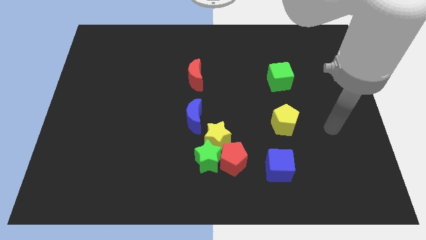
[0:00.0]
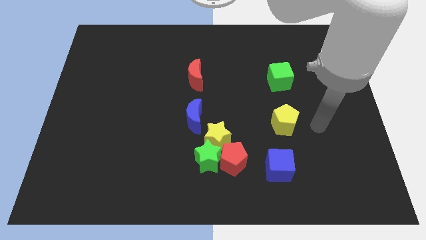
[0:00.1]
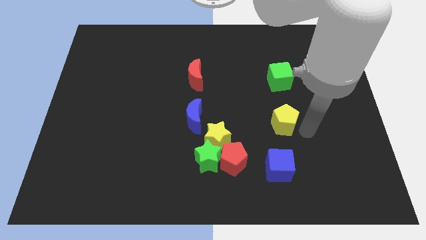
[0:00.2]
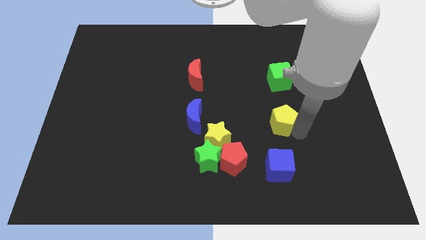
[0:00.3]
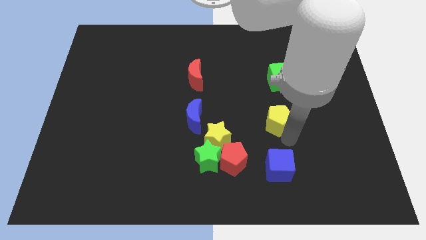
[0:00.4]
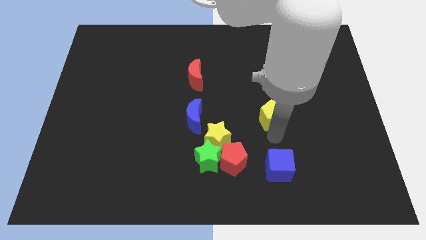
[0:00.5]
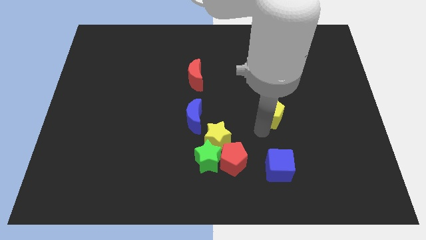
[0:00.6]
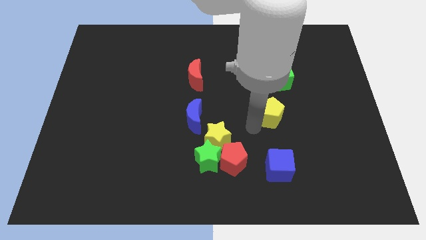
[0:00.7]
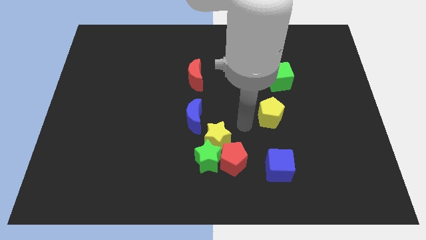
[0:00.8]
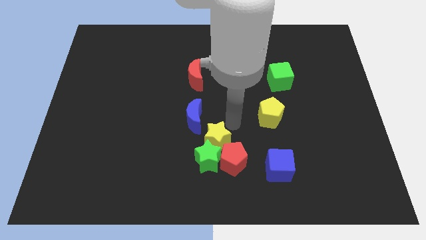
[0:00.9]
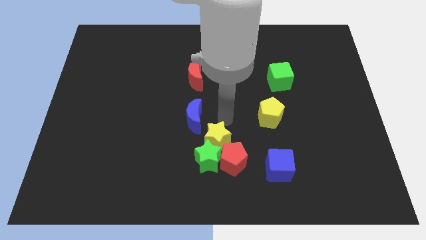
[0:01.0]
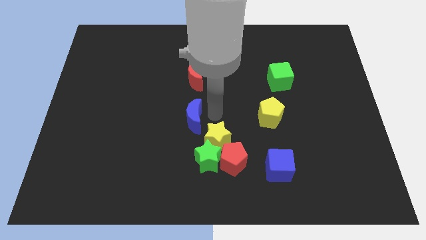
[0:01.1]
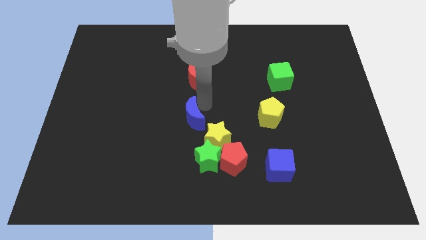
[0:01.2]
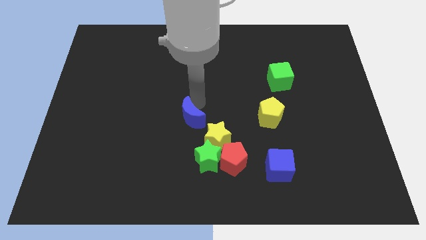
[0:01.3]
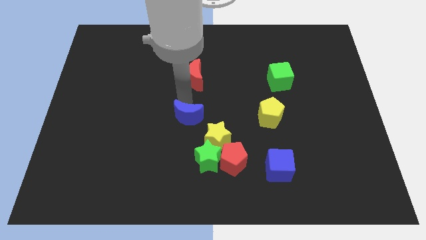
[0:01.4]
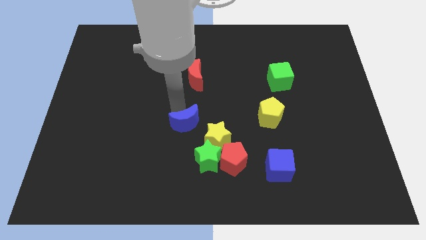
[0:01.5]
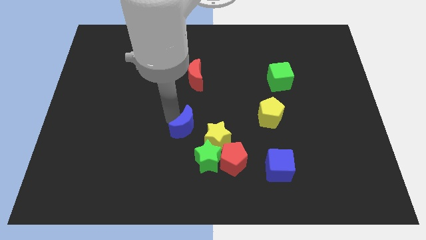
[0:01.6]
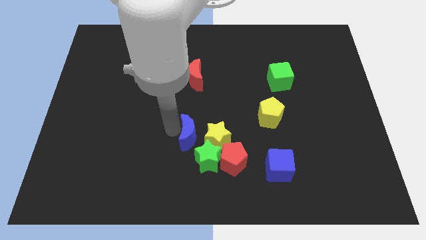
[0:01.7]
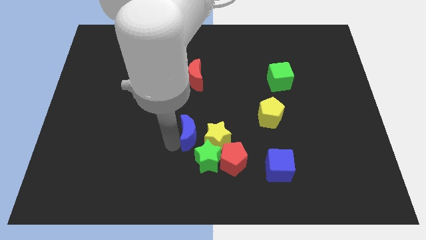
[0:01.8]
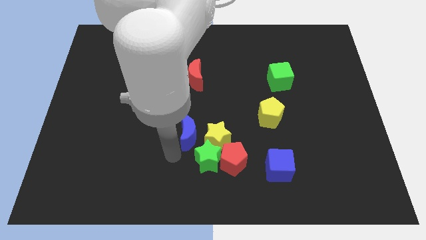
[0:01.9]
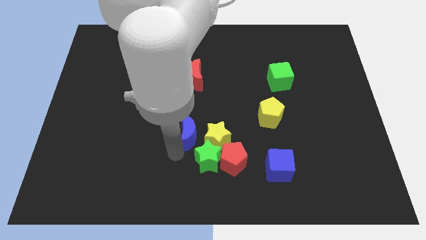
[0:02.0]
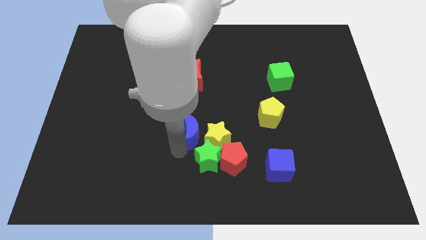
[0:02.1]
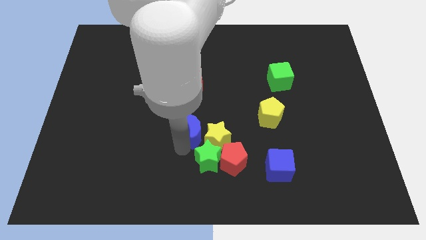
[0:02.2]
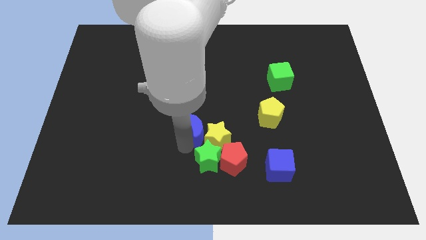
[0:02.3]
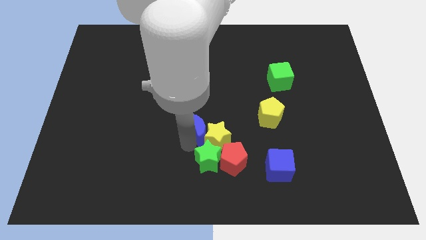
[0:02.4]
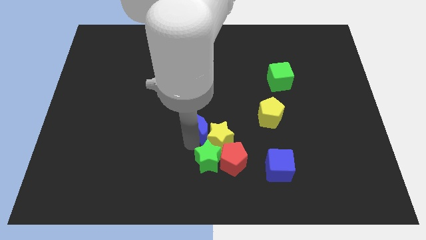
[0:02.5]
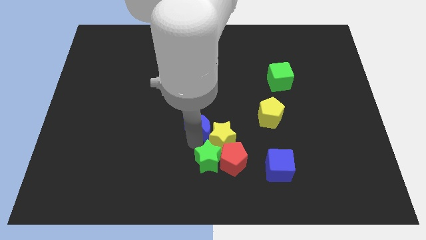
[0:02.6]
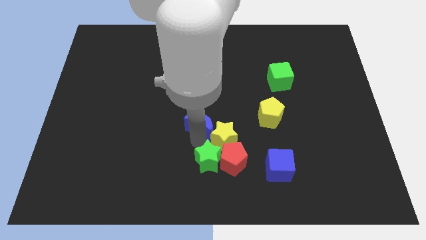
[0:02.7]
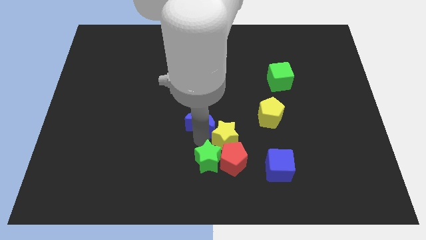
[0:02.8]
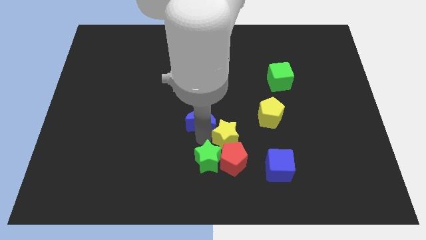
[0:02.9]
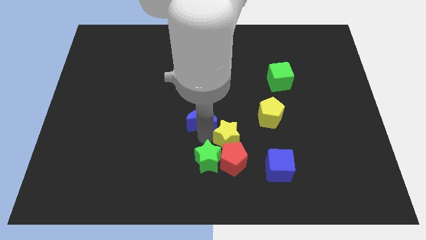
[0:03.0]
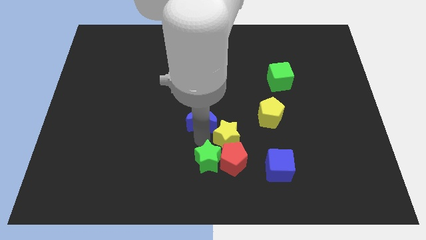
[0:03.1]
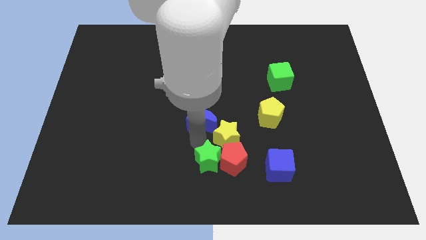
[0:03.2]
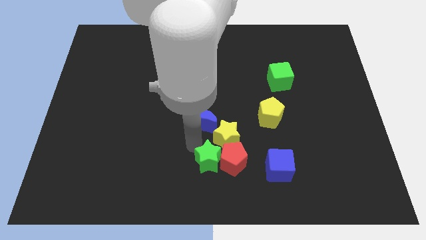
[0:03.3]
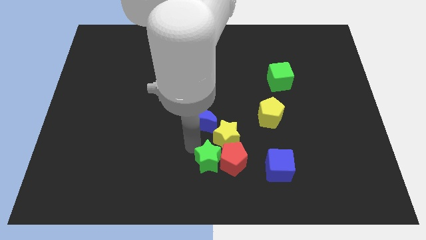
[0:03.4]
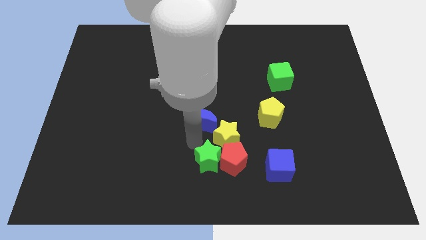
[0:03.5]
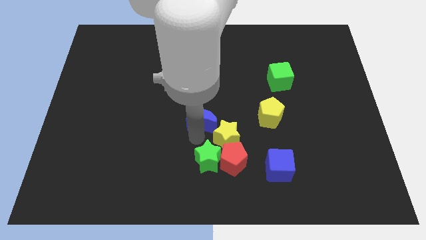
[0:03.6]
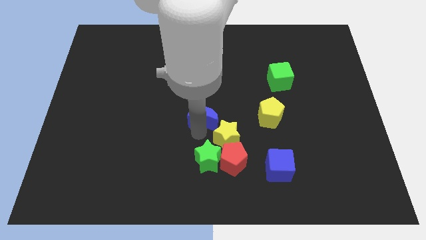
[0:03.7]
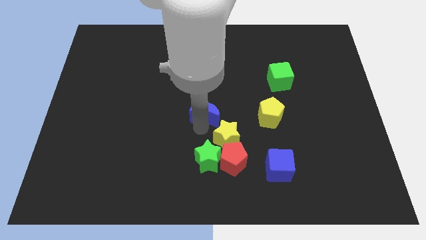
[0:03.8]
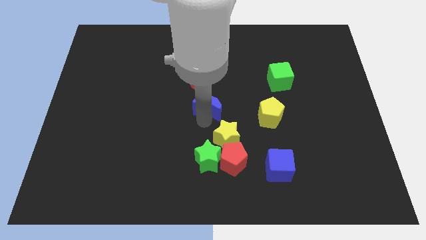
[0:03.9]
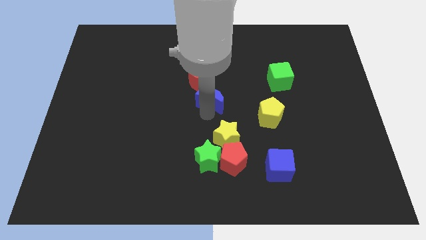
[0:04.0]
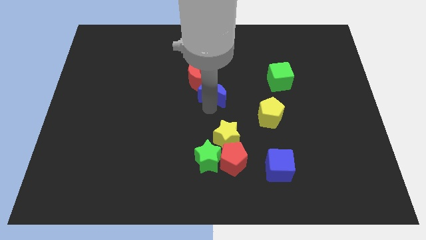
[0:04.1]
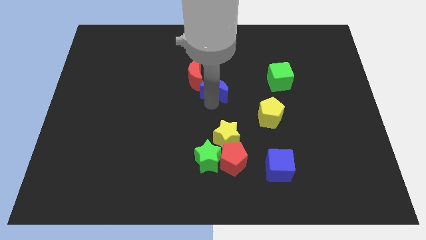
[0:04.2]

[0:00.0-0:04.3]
slide the blue moon somewhat up

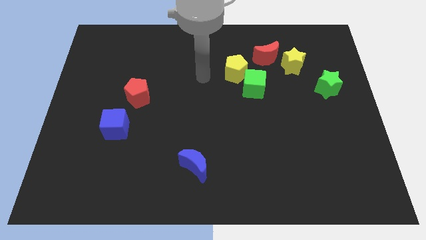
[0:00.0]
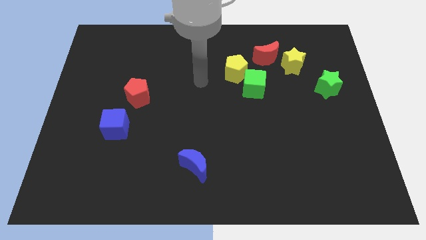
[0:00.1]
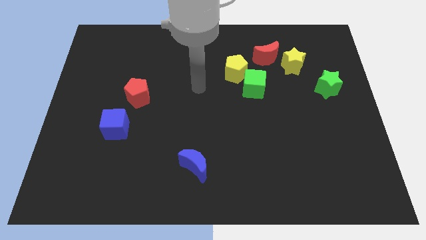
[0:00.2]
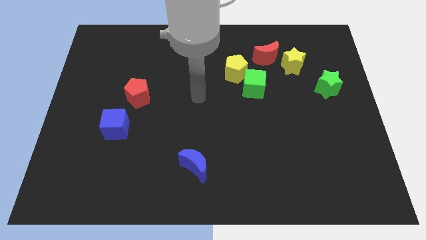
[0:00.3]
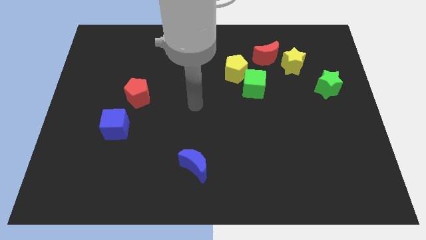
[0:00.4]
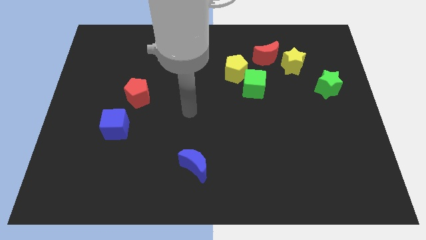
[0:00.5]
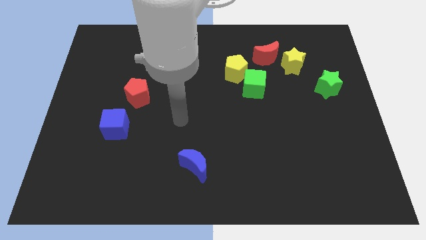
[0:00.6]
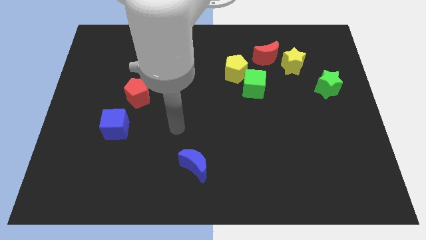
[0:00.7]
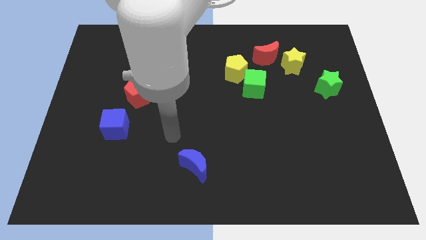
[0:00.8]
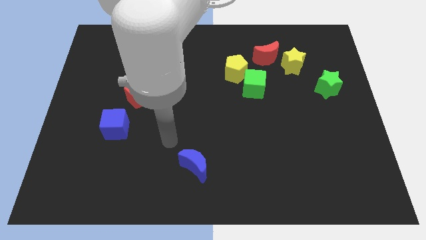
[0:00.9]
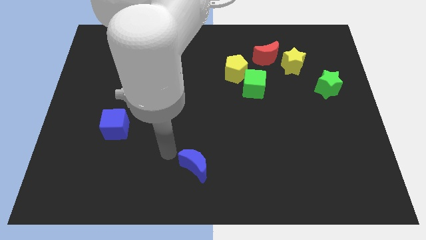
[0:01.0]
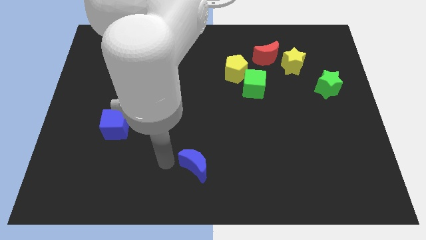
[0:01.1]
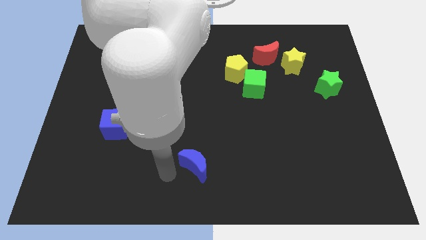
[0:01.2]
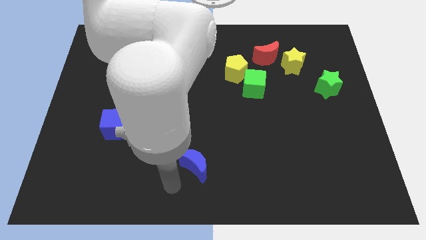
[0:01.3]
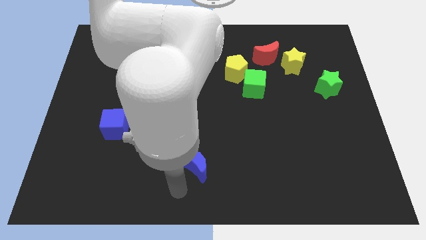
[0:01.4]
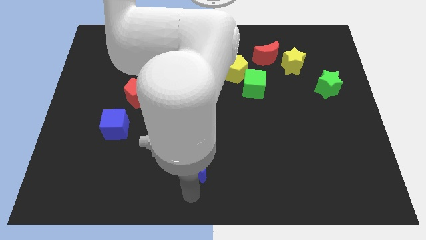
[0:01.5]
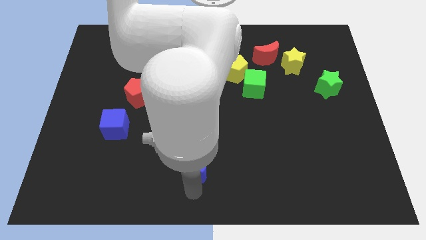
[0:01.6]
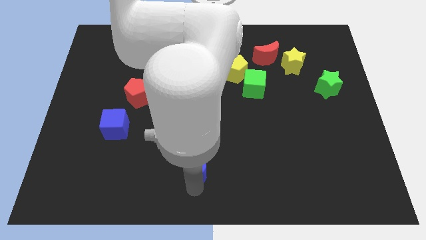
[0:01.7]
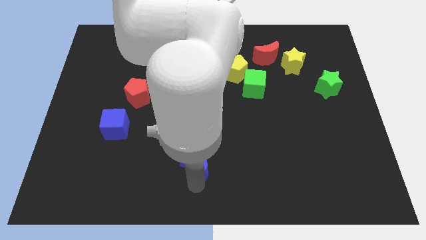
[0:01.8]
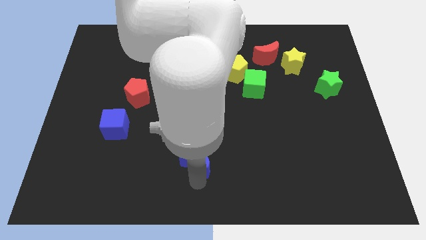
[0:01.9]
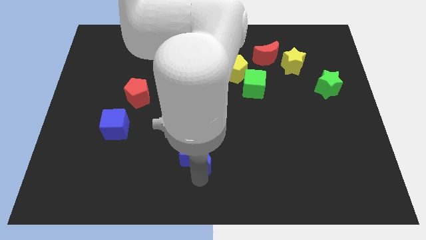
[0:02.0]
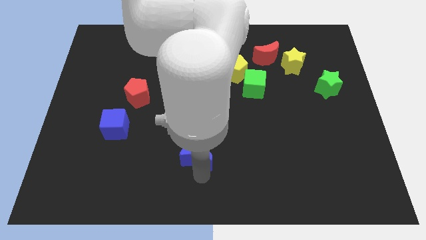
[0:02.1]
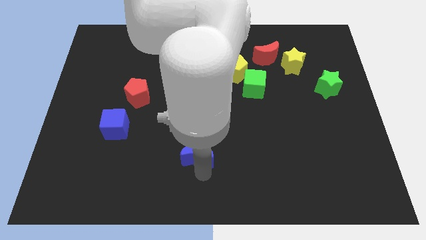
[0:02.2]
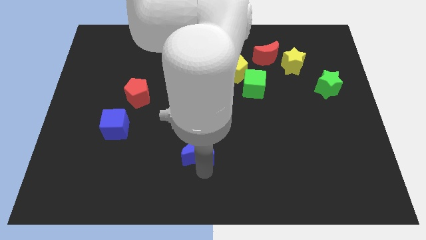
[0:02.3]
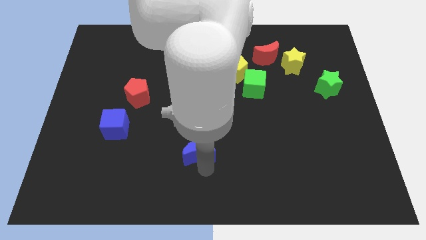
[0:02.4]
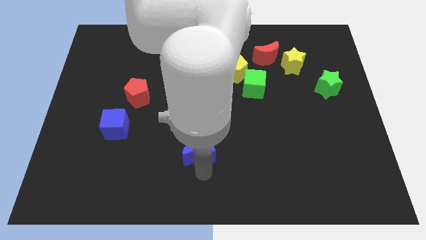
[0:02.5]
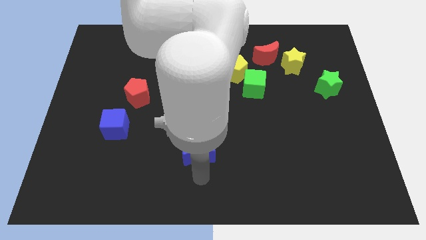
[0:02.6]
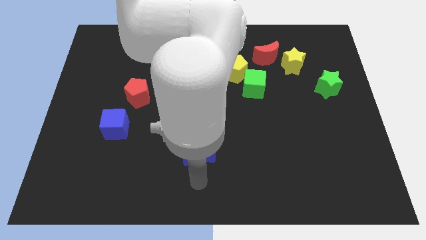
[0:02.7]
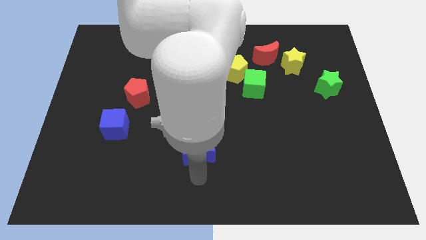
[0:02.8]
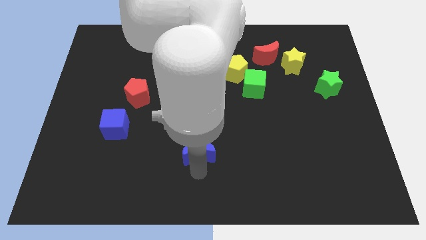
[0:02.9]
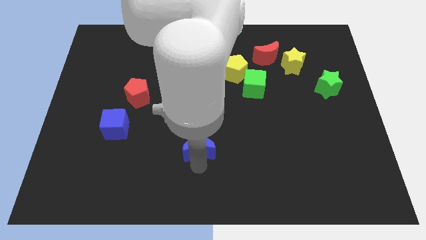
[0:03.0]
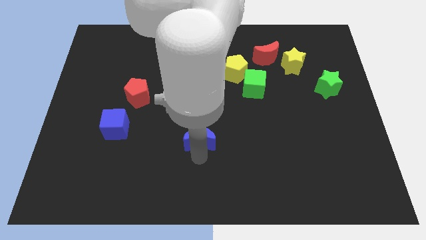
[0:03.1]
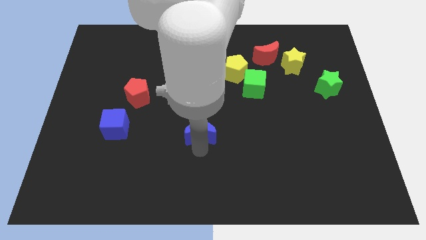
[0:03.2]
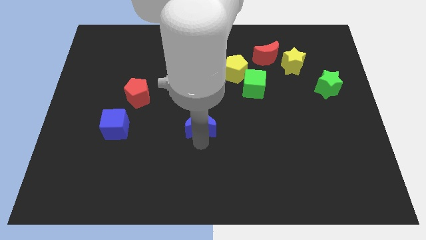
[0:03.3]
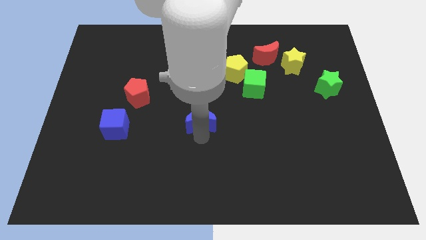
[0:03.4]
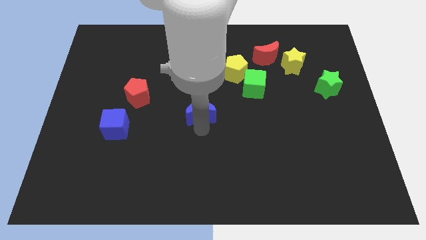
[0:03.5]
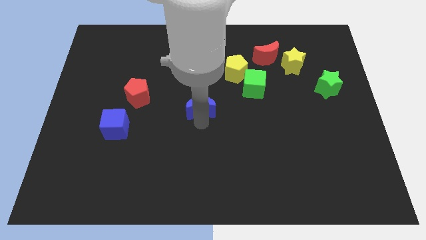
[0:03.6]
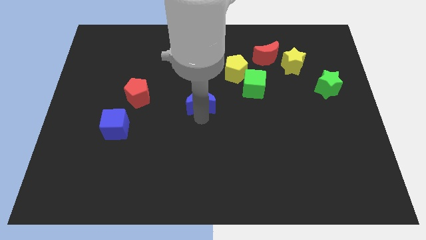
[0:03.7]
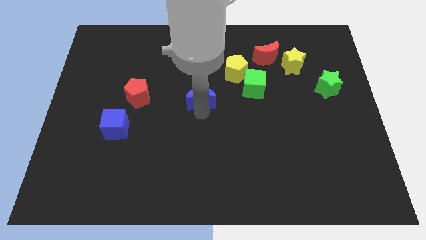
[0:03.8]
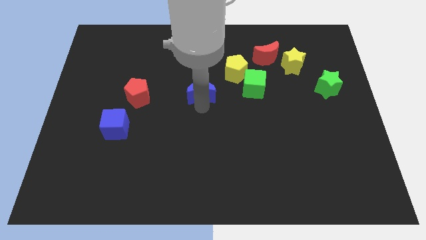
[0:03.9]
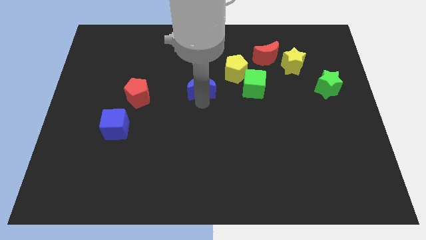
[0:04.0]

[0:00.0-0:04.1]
push the blue moon upwards
